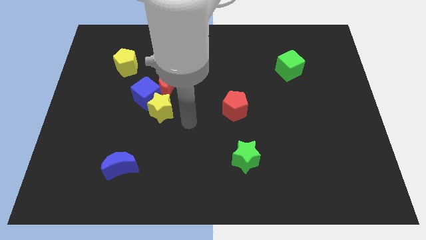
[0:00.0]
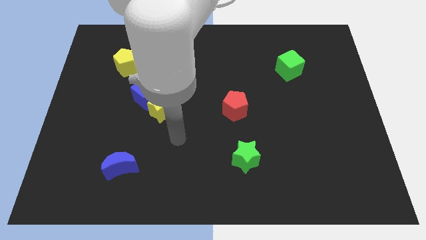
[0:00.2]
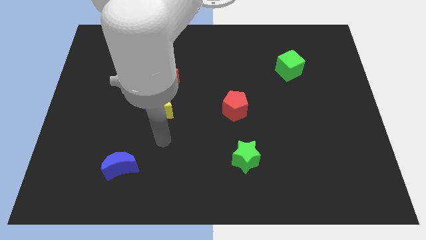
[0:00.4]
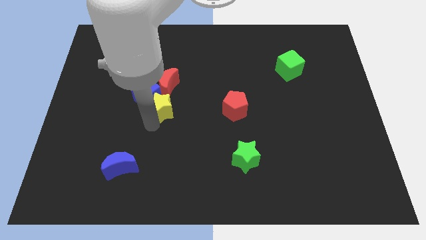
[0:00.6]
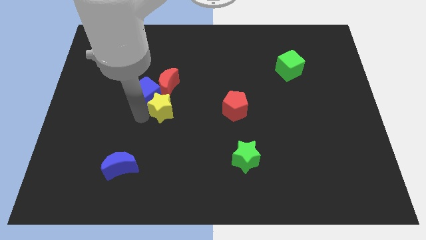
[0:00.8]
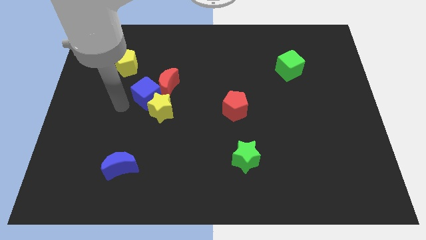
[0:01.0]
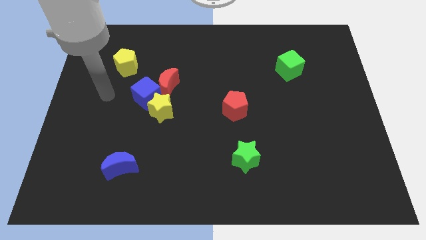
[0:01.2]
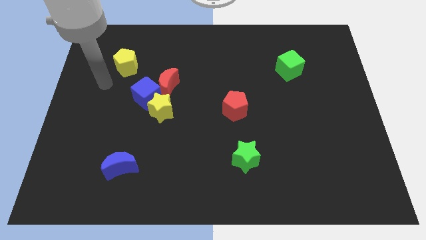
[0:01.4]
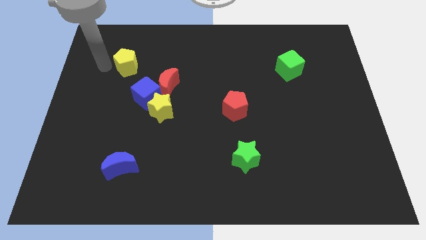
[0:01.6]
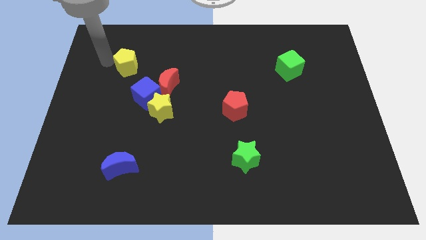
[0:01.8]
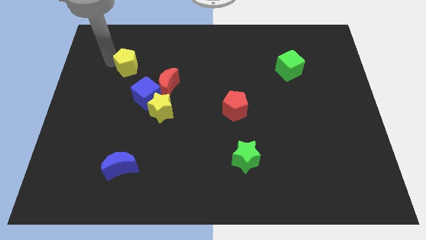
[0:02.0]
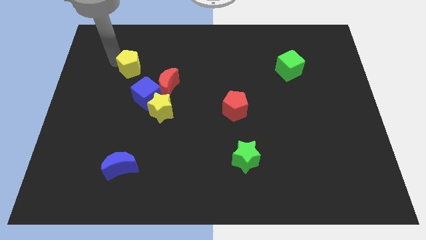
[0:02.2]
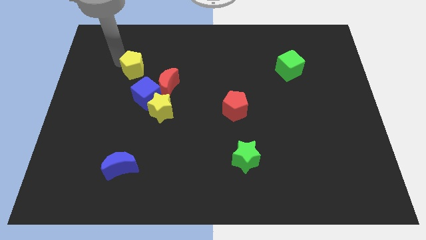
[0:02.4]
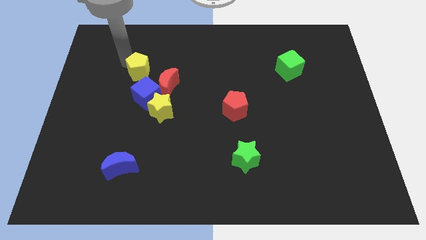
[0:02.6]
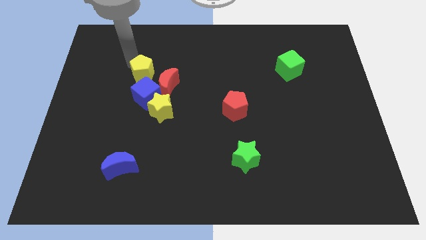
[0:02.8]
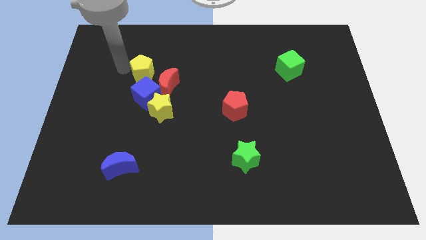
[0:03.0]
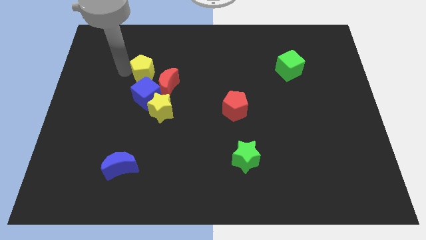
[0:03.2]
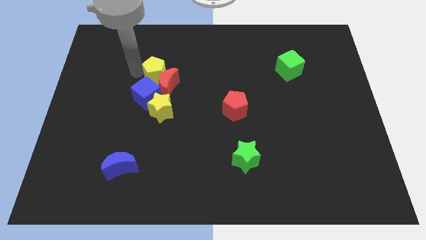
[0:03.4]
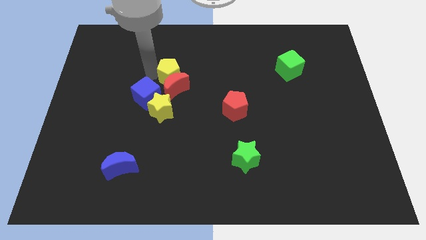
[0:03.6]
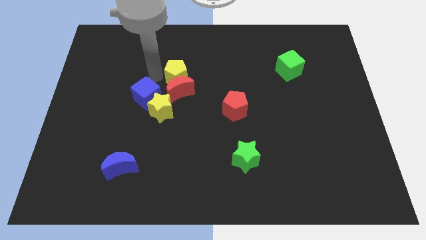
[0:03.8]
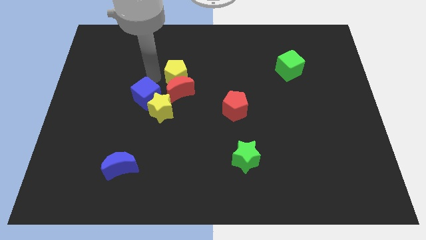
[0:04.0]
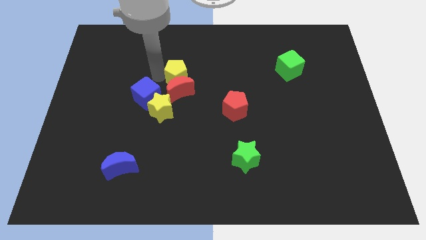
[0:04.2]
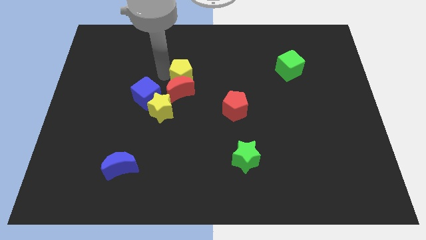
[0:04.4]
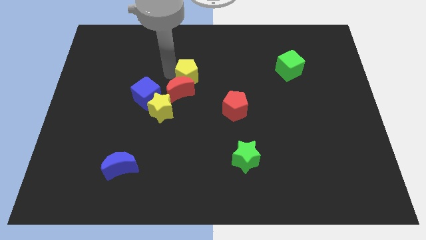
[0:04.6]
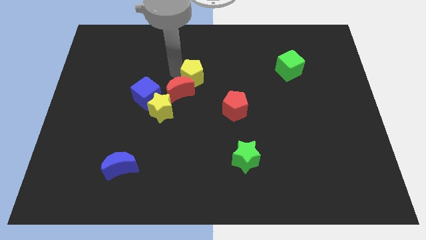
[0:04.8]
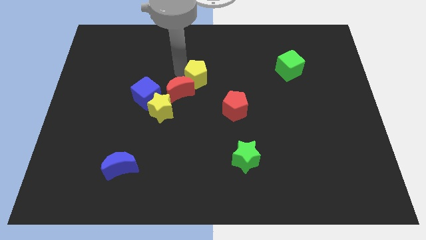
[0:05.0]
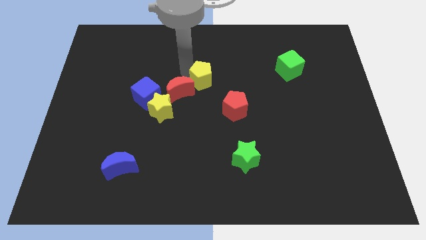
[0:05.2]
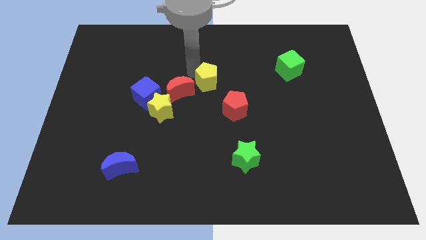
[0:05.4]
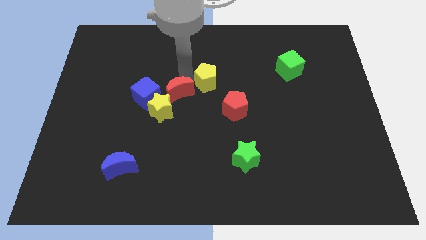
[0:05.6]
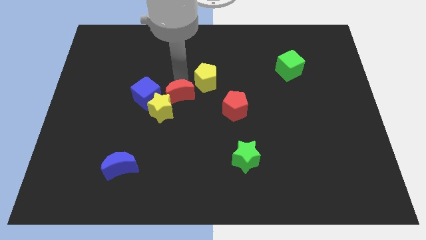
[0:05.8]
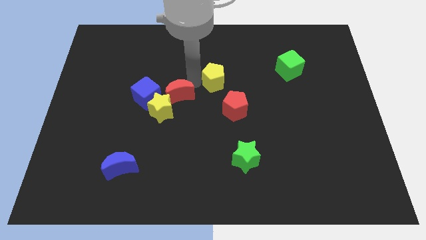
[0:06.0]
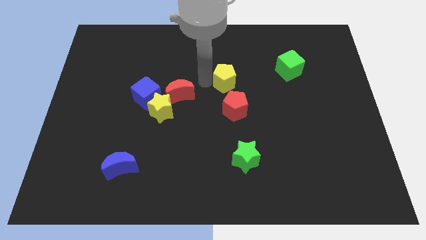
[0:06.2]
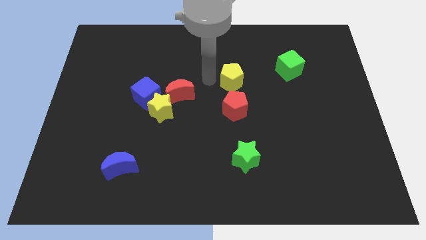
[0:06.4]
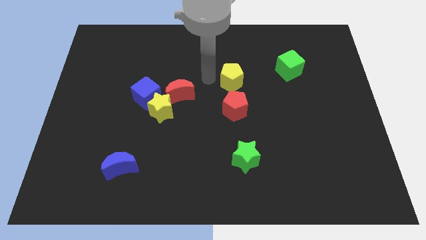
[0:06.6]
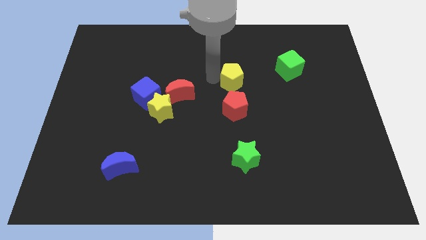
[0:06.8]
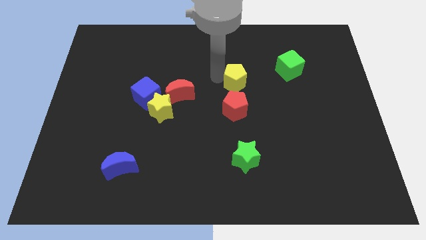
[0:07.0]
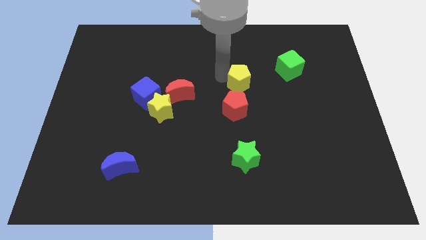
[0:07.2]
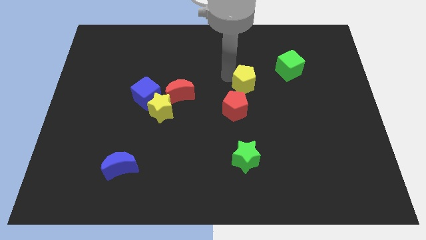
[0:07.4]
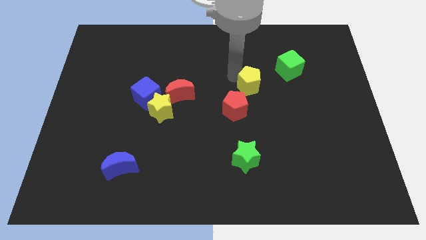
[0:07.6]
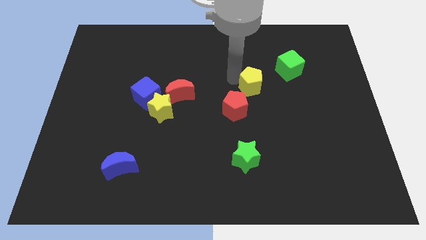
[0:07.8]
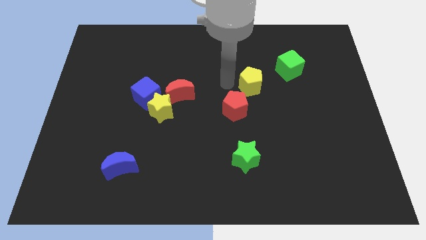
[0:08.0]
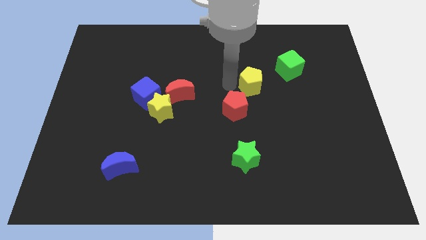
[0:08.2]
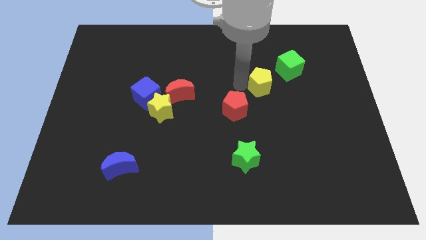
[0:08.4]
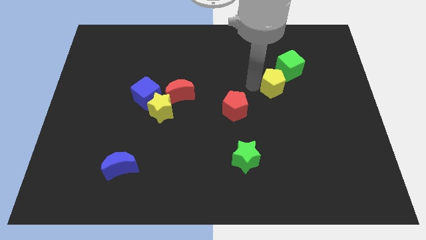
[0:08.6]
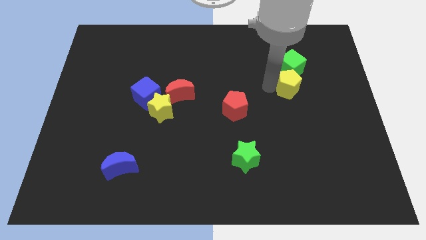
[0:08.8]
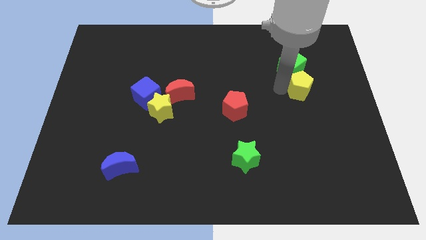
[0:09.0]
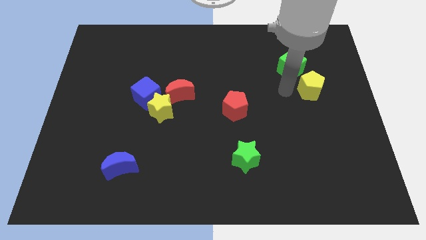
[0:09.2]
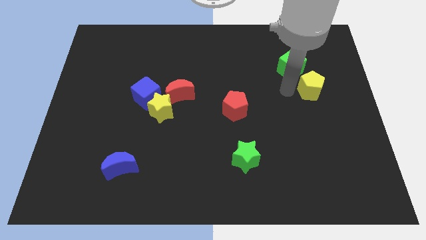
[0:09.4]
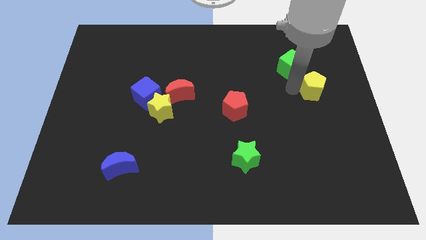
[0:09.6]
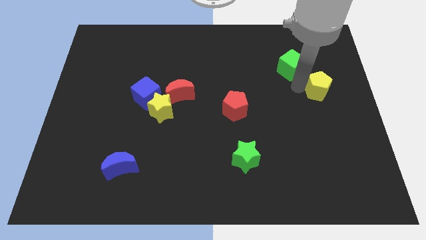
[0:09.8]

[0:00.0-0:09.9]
slide the yellow pentagon to the center right

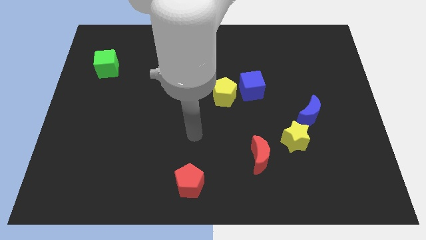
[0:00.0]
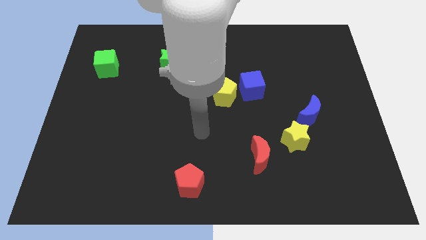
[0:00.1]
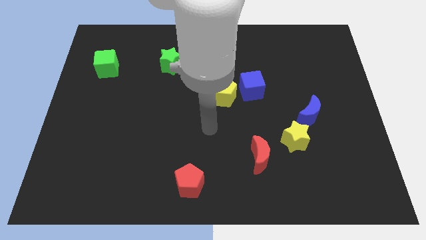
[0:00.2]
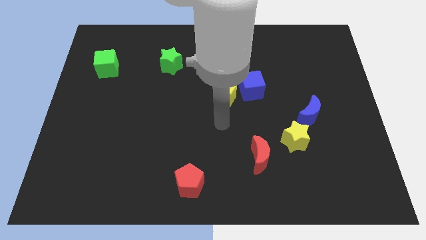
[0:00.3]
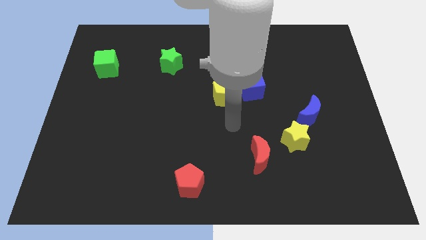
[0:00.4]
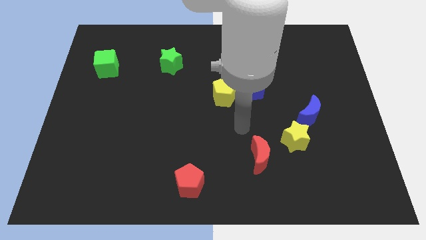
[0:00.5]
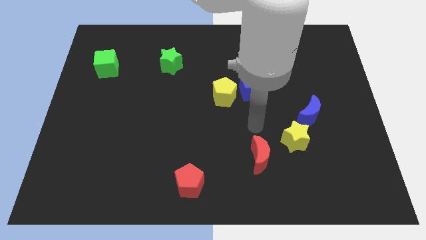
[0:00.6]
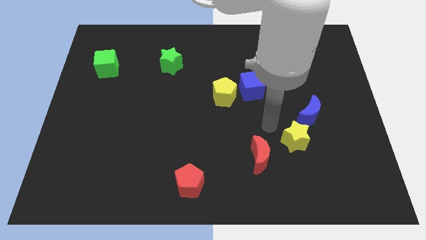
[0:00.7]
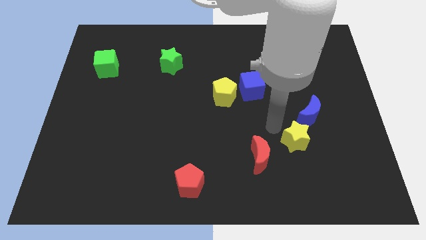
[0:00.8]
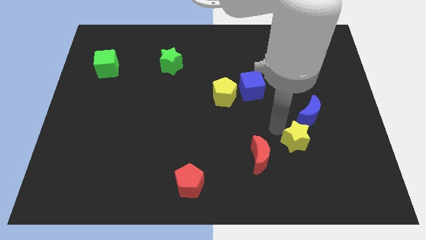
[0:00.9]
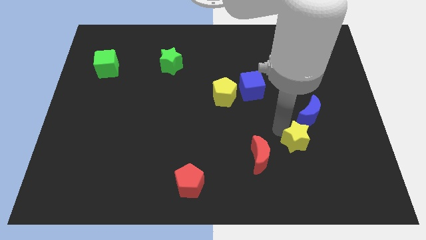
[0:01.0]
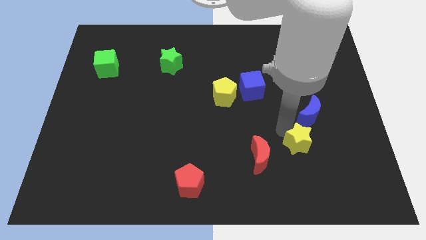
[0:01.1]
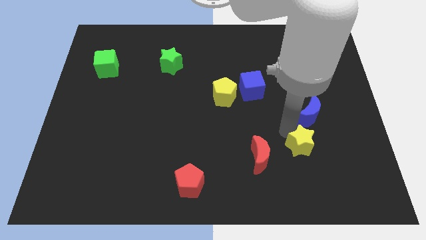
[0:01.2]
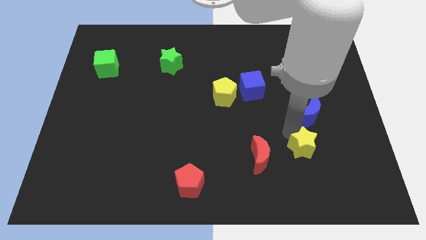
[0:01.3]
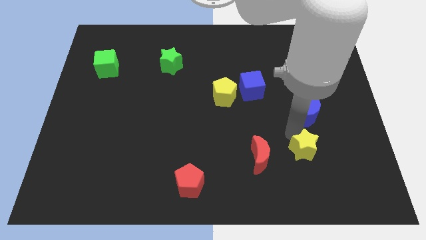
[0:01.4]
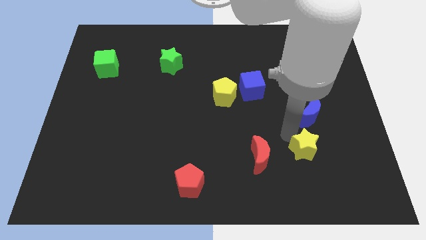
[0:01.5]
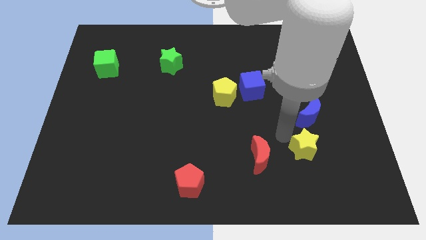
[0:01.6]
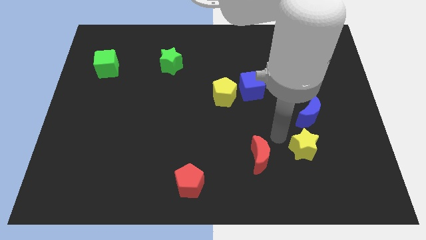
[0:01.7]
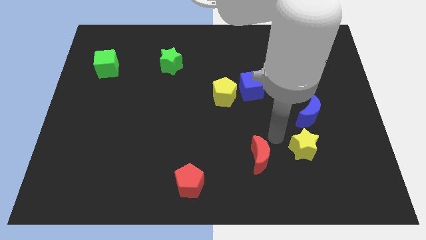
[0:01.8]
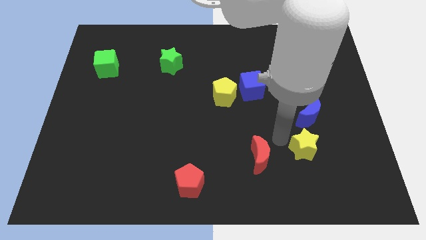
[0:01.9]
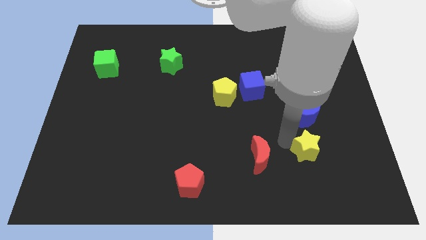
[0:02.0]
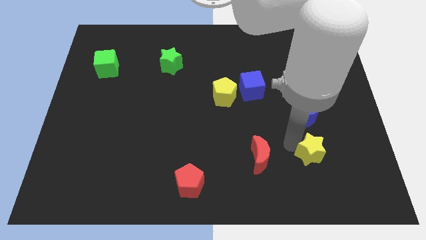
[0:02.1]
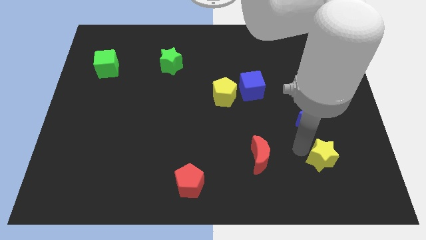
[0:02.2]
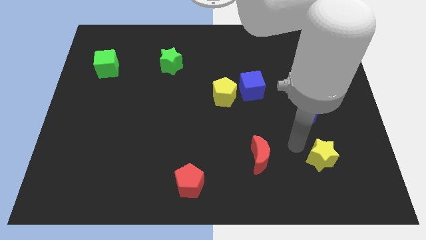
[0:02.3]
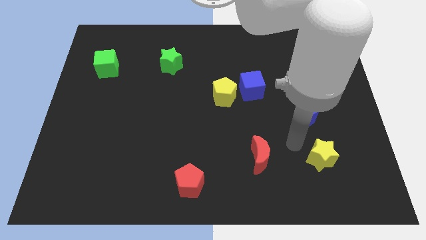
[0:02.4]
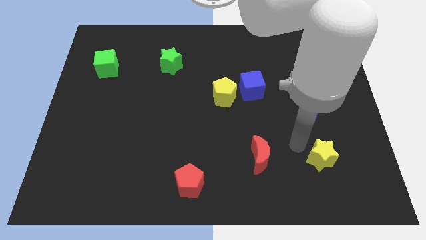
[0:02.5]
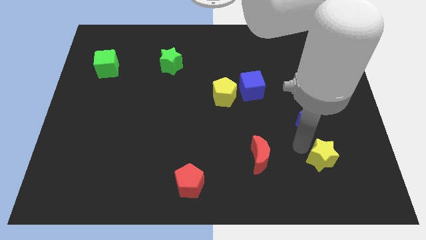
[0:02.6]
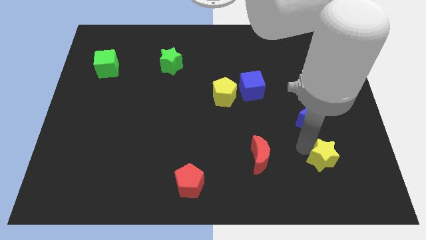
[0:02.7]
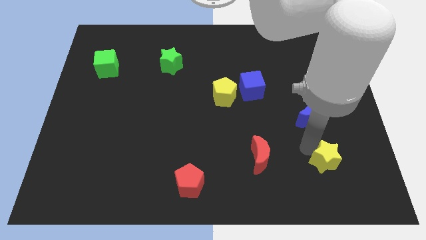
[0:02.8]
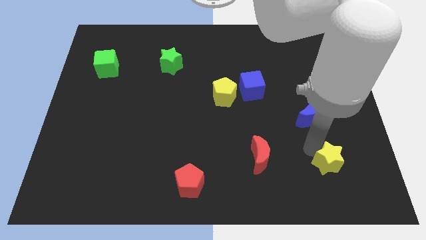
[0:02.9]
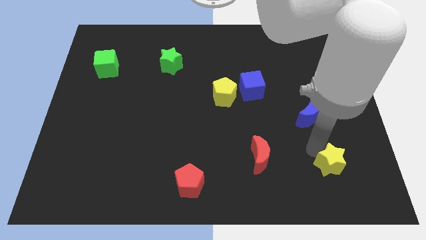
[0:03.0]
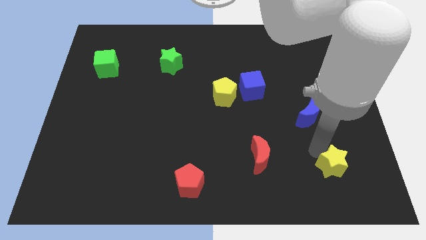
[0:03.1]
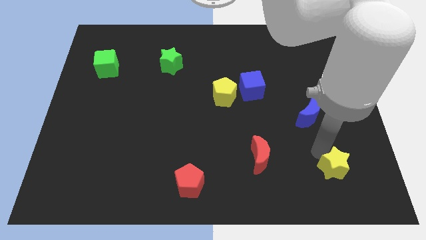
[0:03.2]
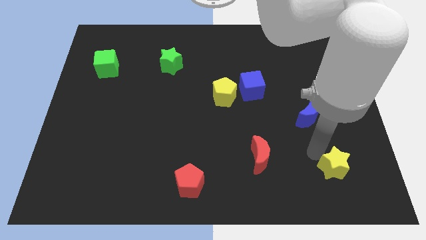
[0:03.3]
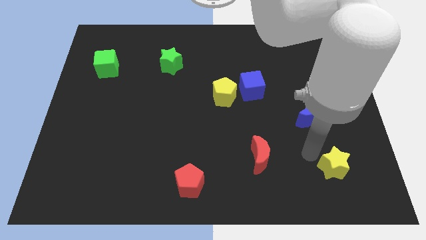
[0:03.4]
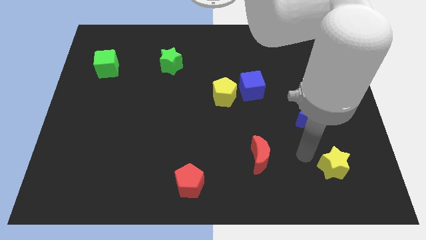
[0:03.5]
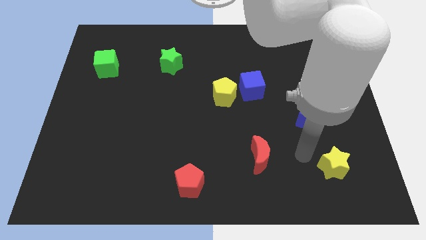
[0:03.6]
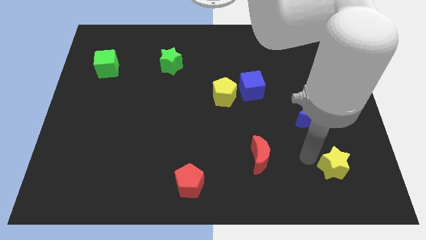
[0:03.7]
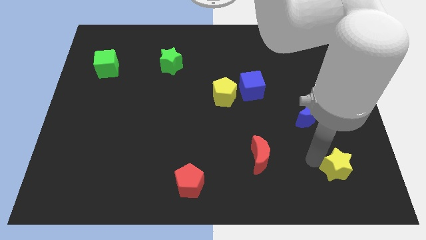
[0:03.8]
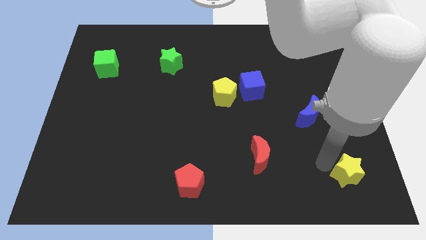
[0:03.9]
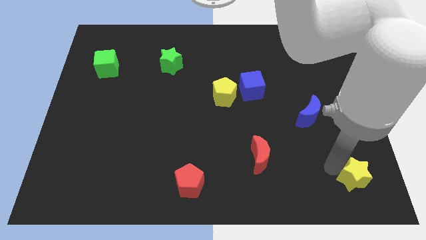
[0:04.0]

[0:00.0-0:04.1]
put the yellow star to the bottom right corner
